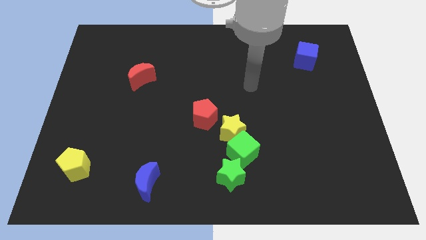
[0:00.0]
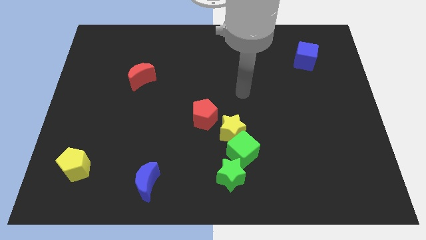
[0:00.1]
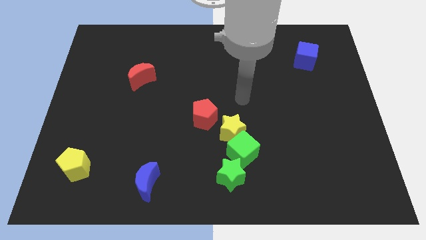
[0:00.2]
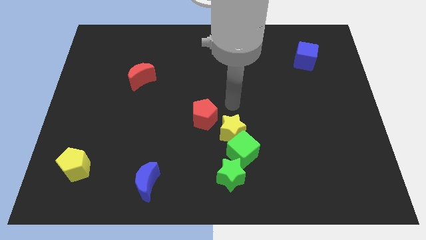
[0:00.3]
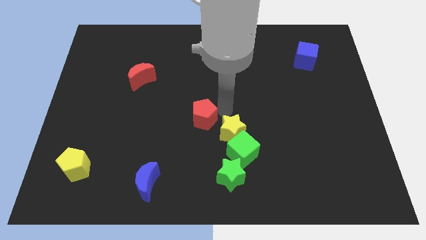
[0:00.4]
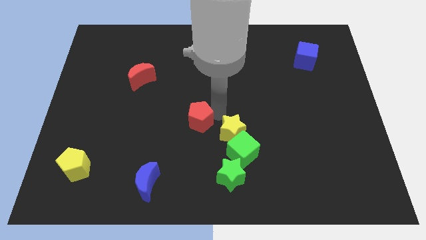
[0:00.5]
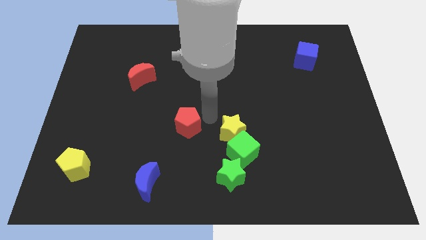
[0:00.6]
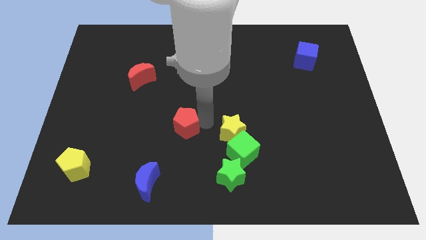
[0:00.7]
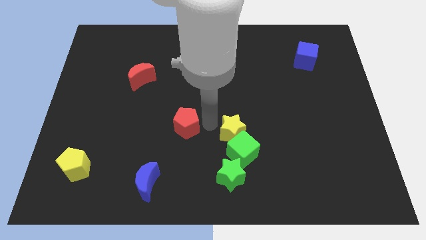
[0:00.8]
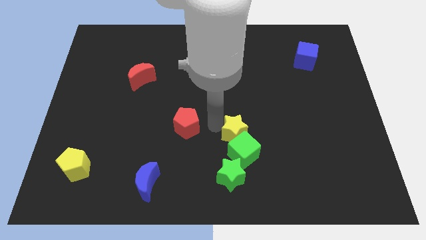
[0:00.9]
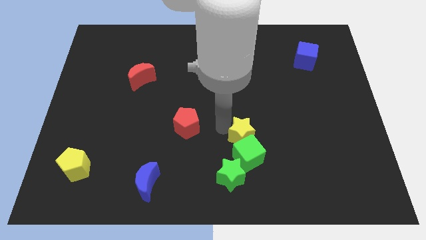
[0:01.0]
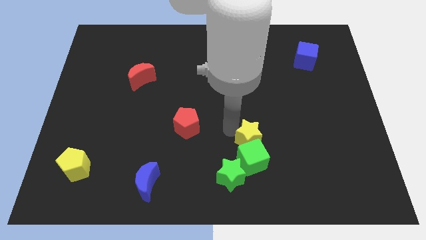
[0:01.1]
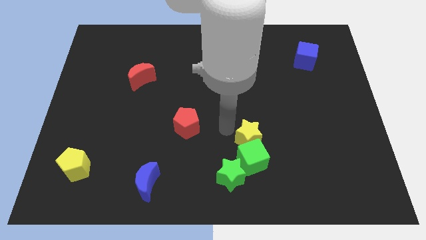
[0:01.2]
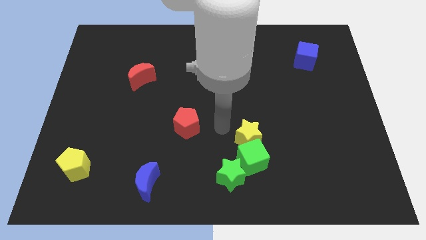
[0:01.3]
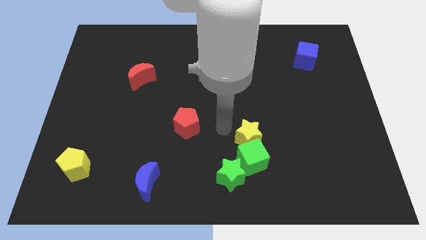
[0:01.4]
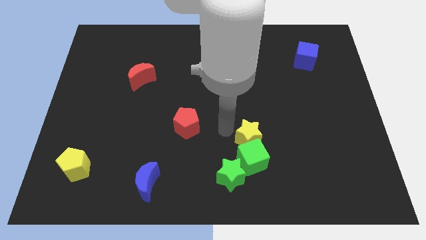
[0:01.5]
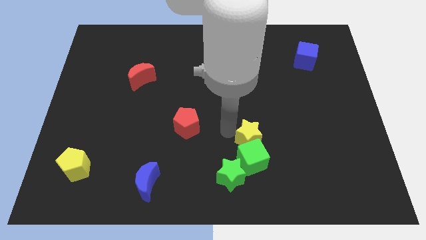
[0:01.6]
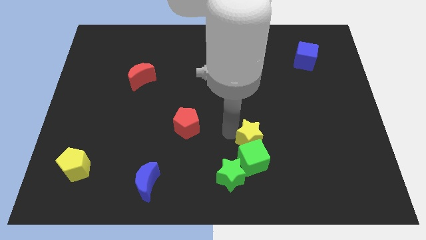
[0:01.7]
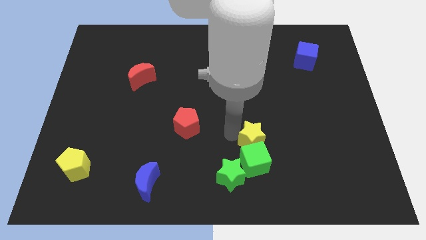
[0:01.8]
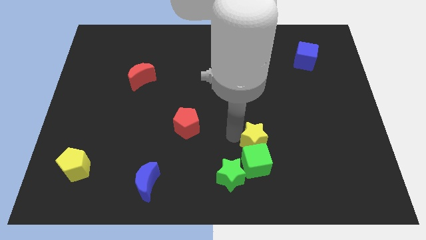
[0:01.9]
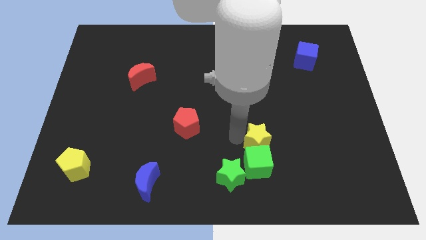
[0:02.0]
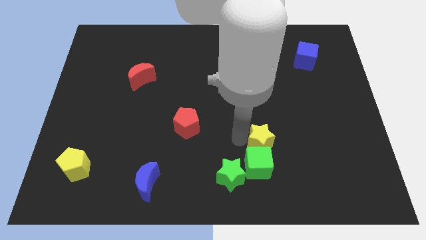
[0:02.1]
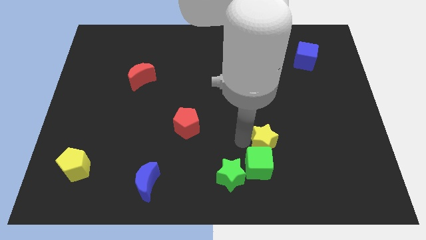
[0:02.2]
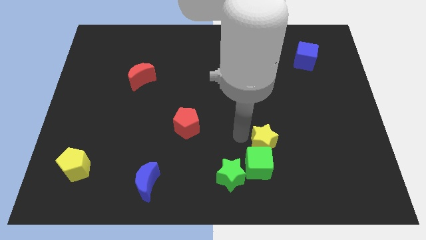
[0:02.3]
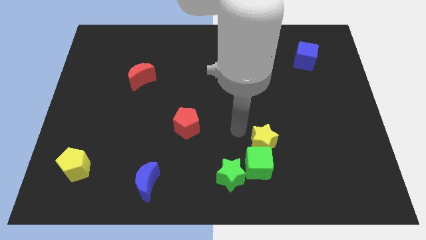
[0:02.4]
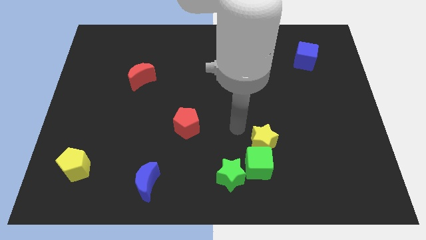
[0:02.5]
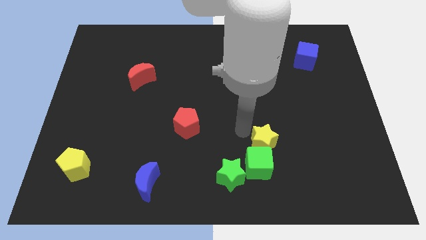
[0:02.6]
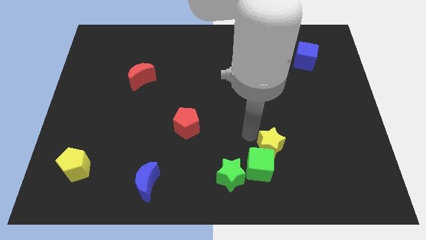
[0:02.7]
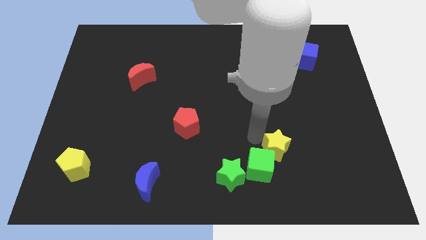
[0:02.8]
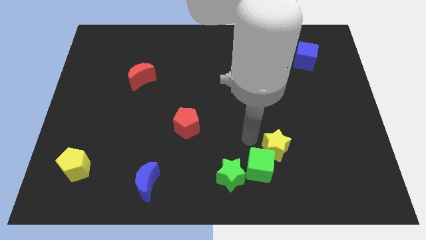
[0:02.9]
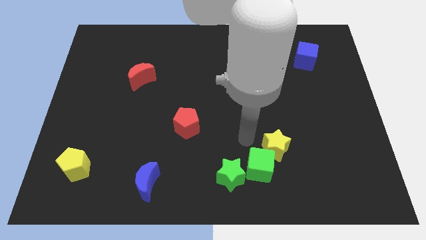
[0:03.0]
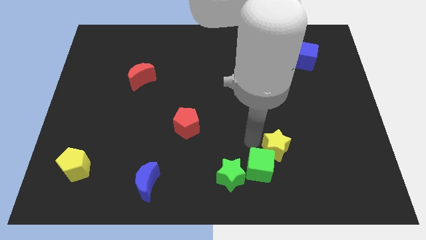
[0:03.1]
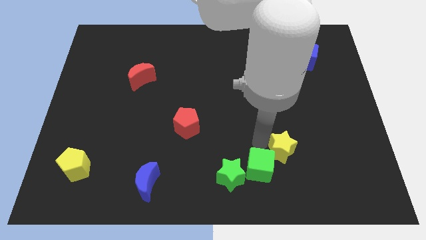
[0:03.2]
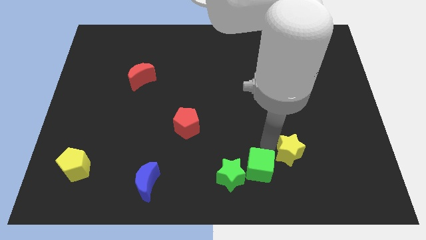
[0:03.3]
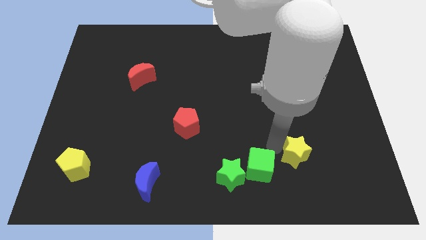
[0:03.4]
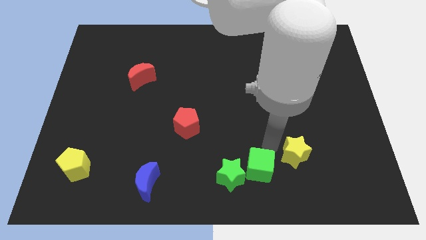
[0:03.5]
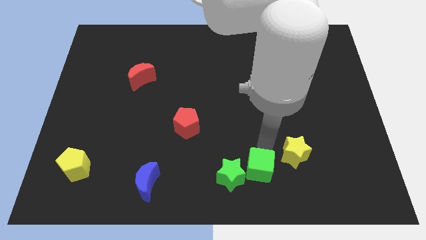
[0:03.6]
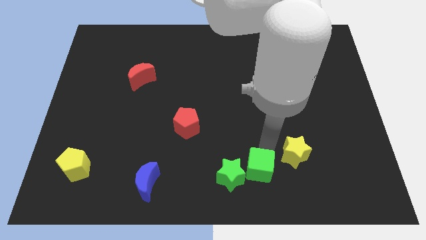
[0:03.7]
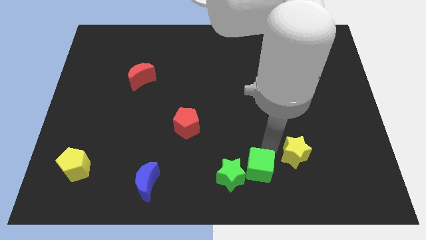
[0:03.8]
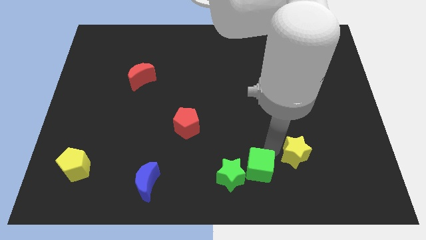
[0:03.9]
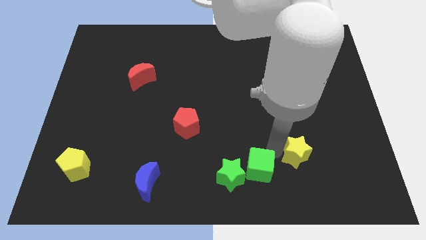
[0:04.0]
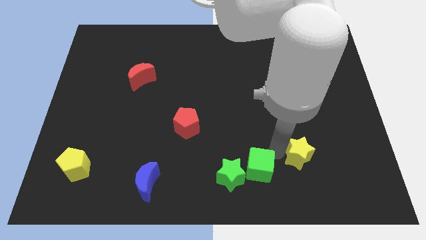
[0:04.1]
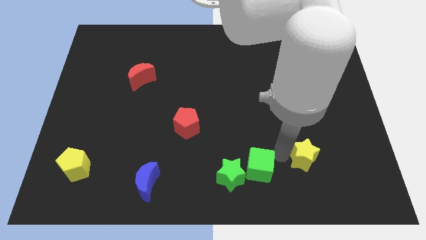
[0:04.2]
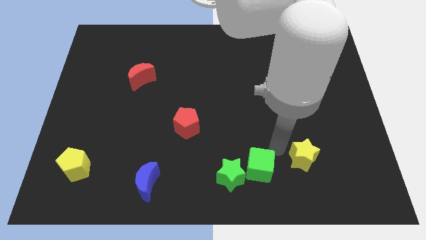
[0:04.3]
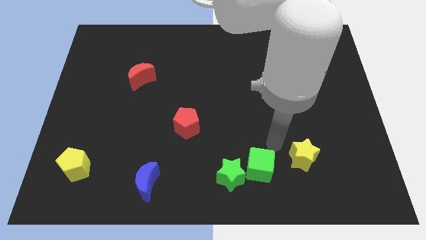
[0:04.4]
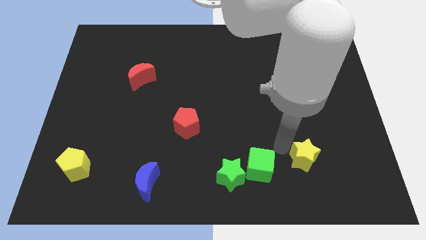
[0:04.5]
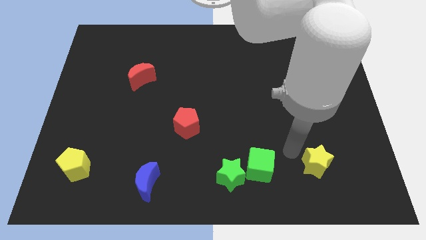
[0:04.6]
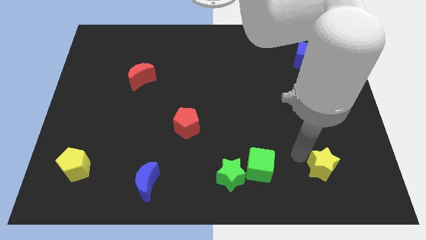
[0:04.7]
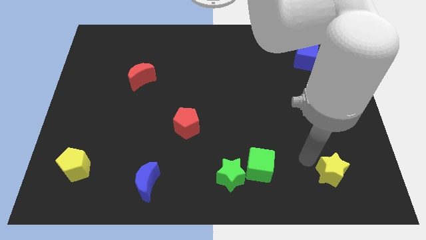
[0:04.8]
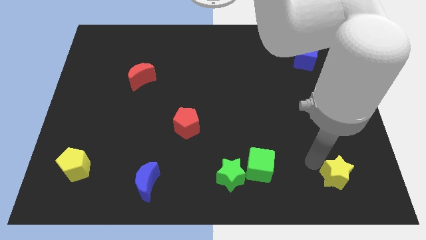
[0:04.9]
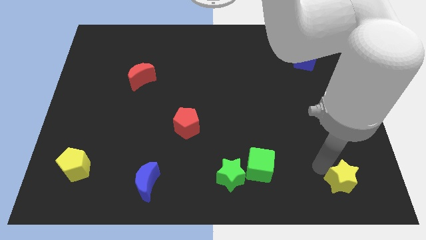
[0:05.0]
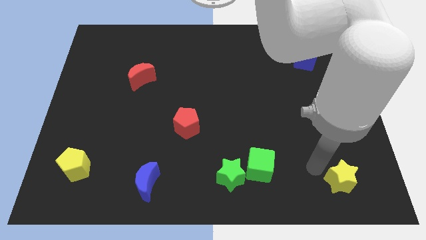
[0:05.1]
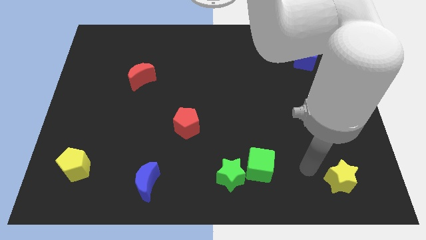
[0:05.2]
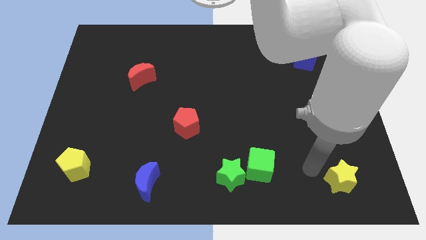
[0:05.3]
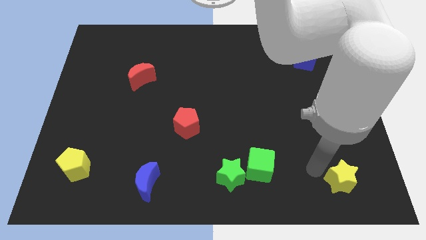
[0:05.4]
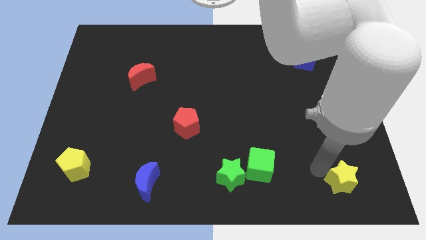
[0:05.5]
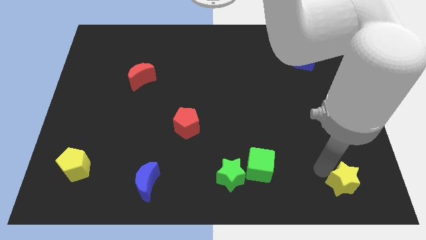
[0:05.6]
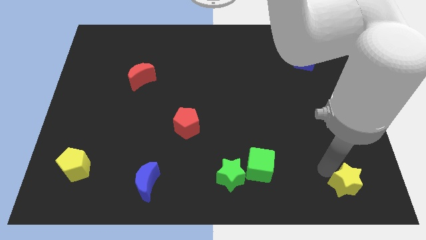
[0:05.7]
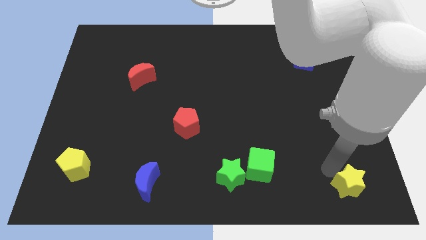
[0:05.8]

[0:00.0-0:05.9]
push the yellow star to the lower right corner
